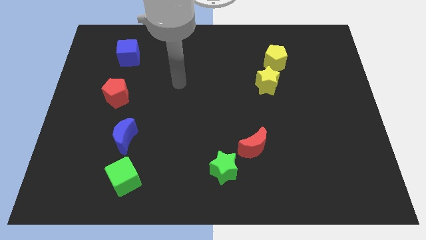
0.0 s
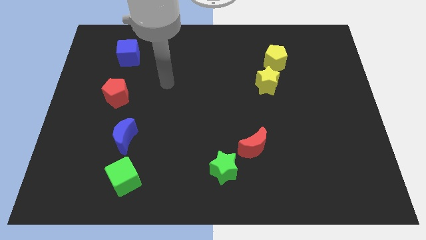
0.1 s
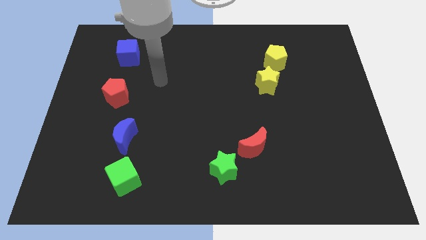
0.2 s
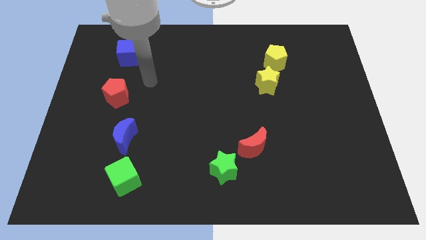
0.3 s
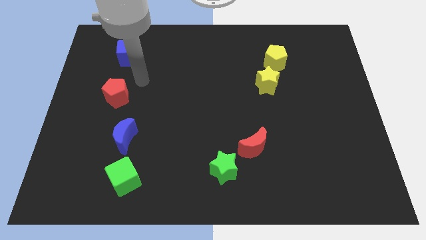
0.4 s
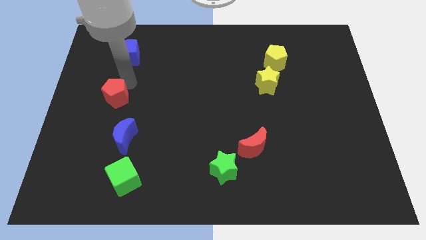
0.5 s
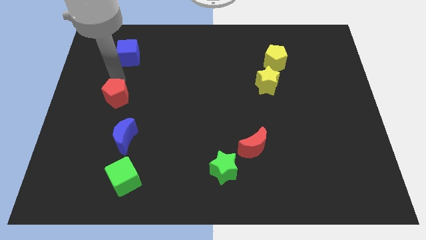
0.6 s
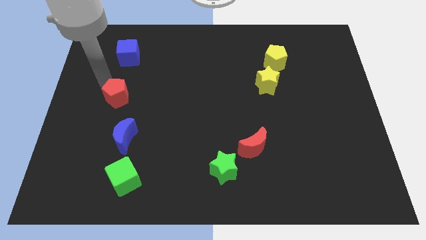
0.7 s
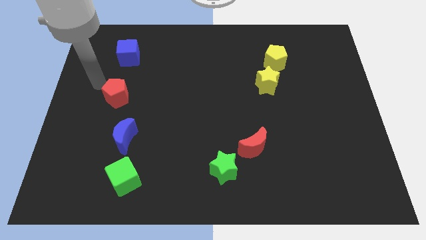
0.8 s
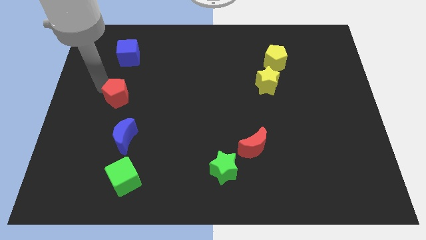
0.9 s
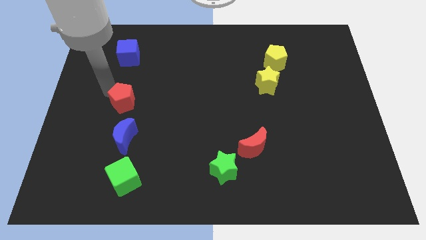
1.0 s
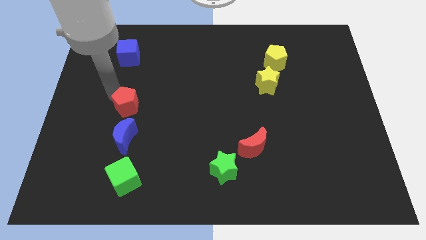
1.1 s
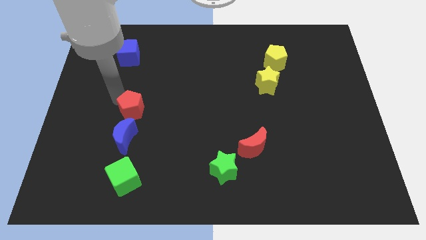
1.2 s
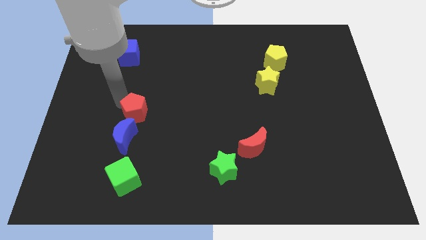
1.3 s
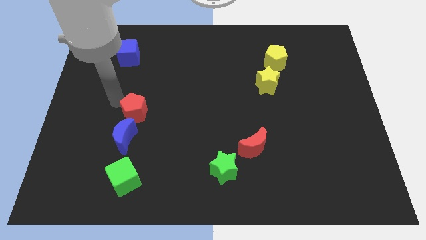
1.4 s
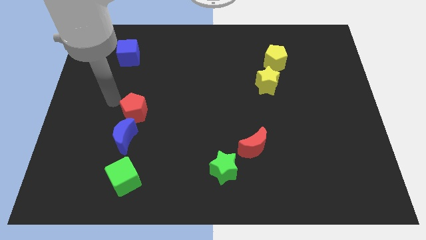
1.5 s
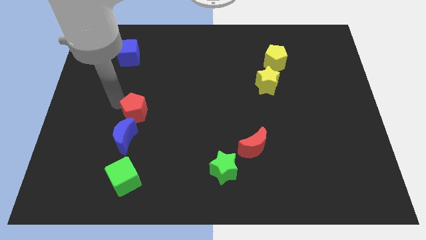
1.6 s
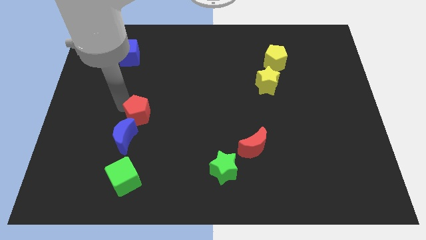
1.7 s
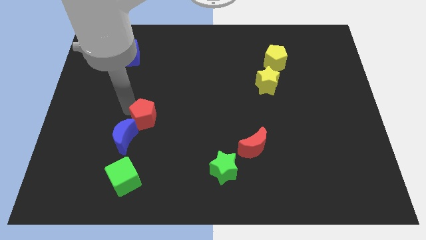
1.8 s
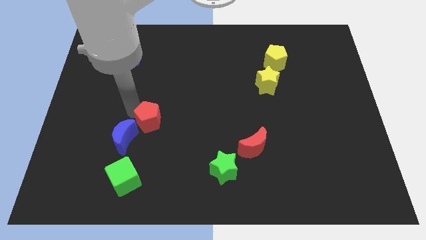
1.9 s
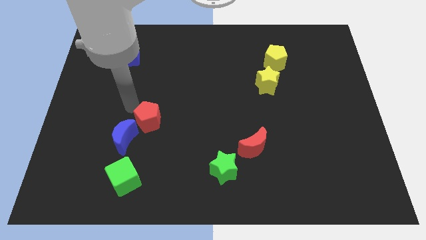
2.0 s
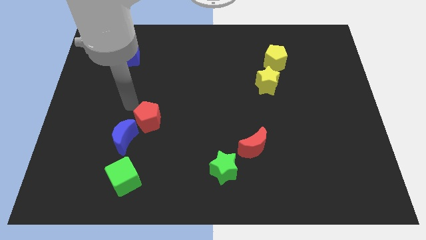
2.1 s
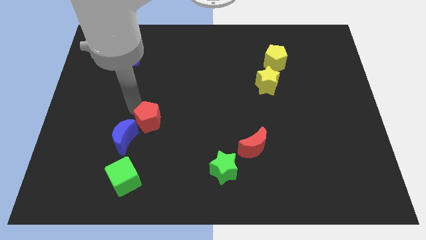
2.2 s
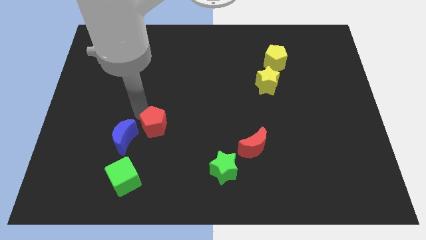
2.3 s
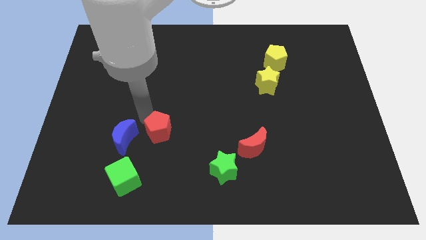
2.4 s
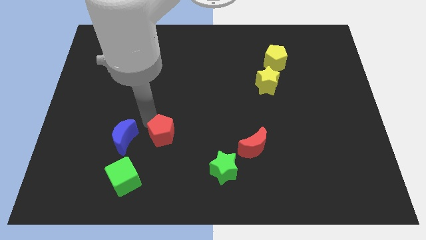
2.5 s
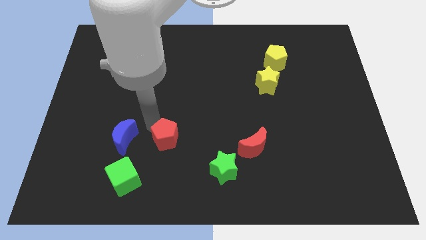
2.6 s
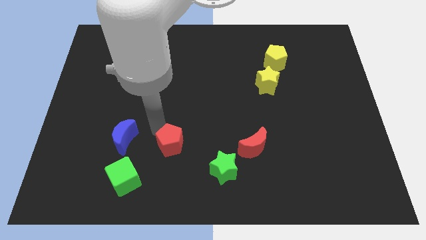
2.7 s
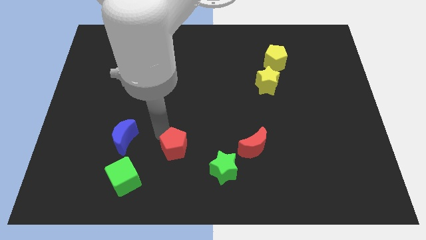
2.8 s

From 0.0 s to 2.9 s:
move the red pentagon diagonally downwards and right

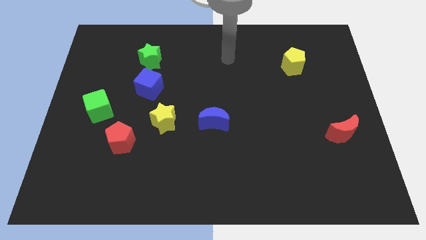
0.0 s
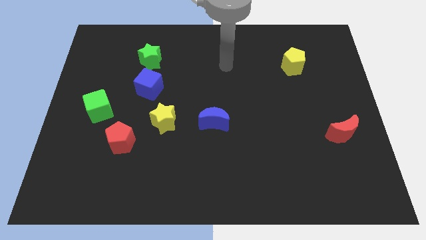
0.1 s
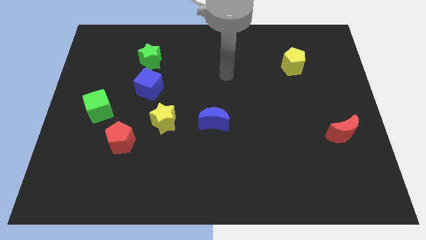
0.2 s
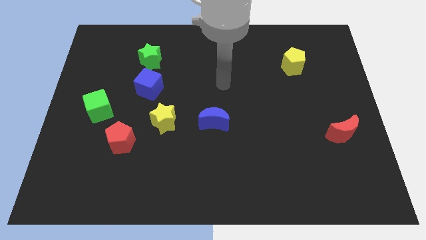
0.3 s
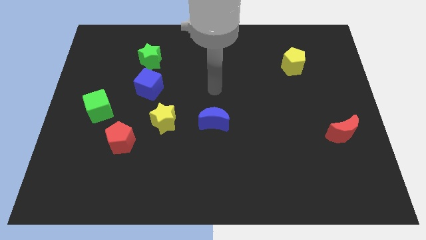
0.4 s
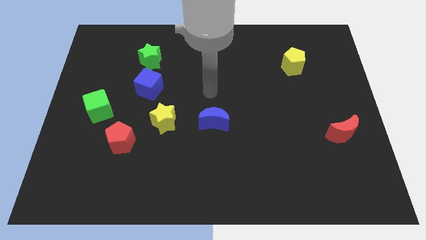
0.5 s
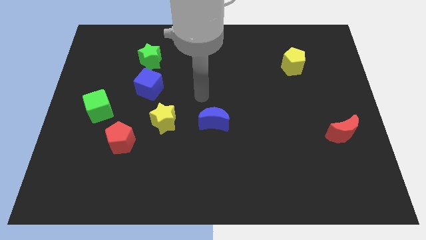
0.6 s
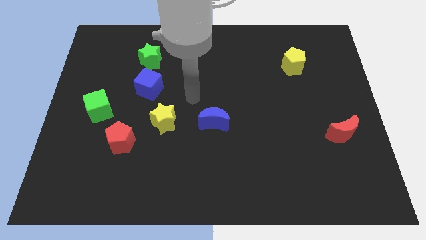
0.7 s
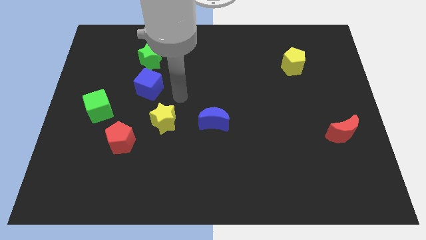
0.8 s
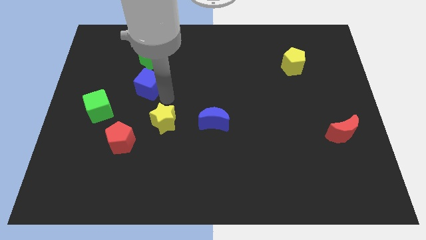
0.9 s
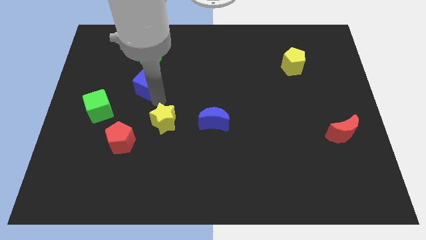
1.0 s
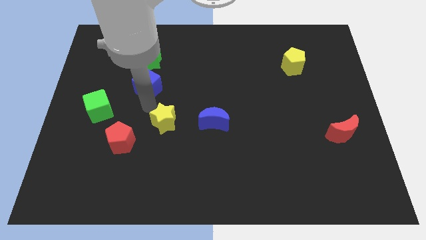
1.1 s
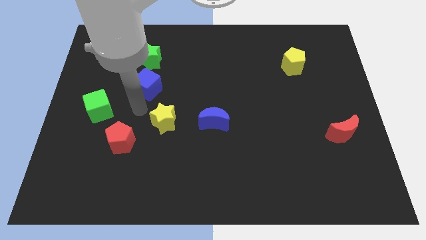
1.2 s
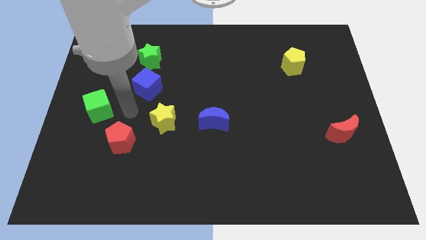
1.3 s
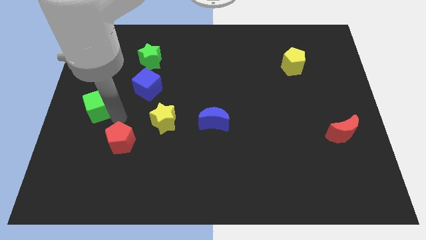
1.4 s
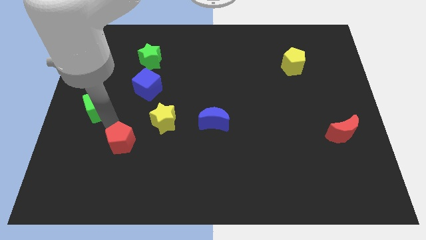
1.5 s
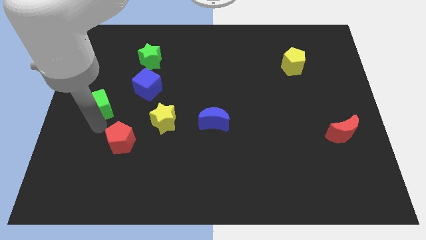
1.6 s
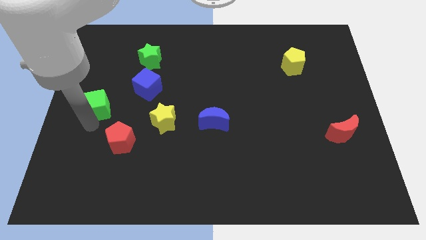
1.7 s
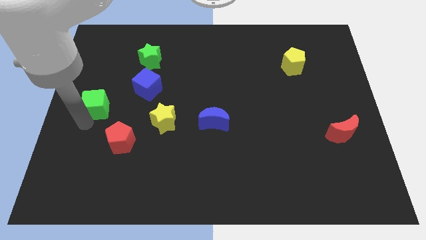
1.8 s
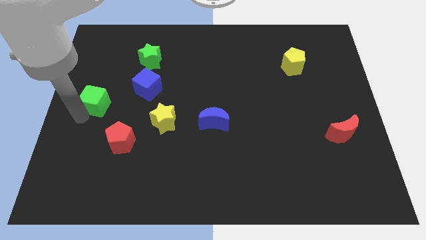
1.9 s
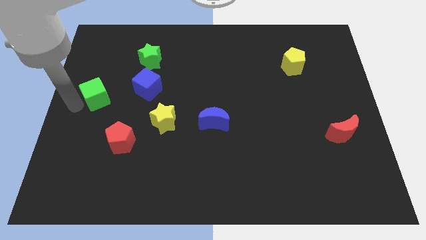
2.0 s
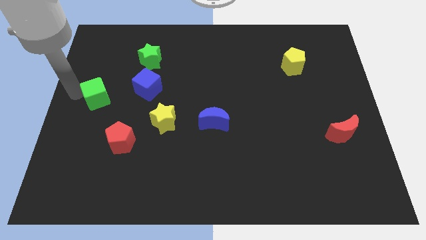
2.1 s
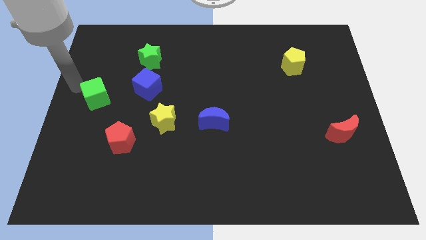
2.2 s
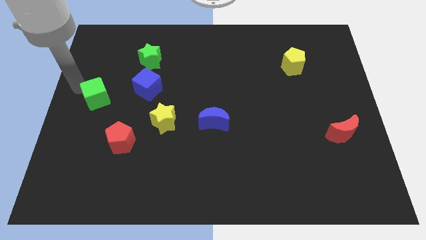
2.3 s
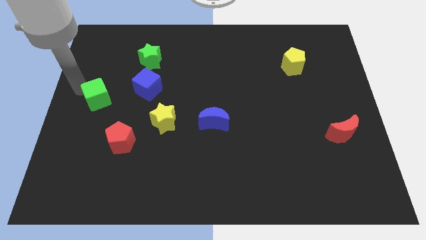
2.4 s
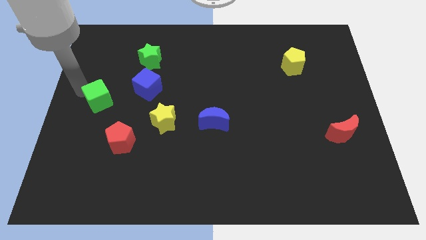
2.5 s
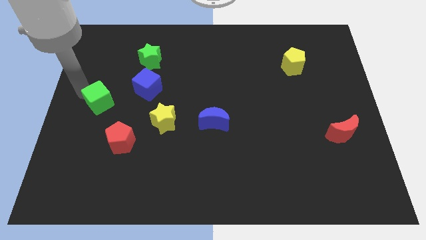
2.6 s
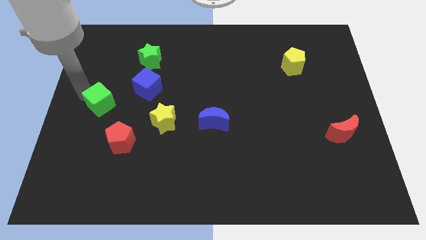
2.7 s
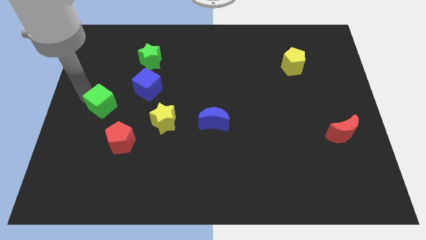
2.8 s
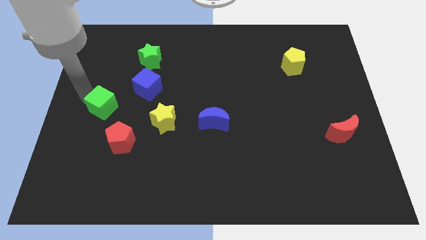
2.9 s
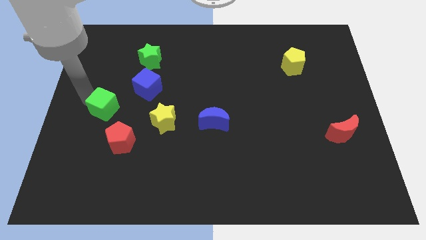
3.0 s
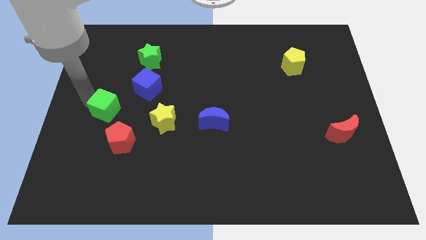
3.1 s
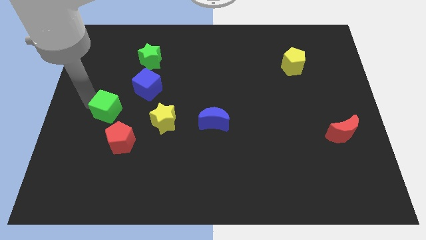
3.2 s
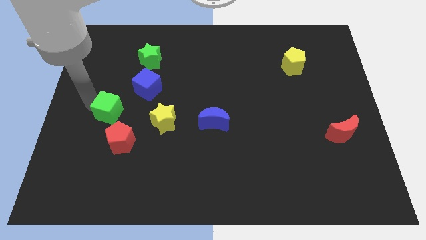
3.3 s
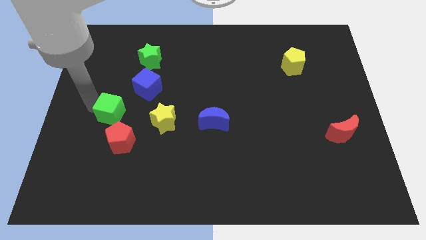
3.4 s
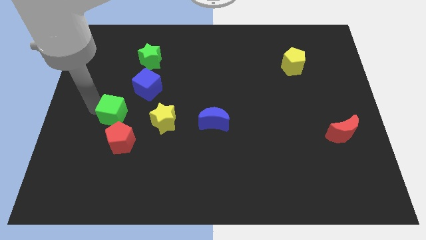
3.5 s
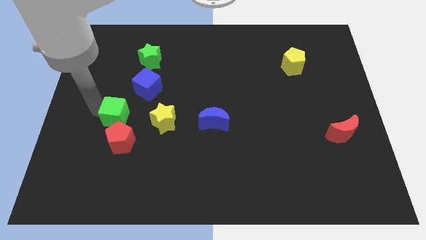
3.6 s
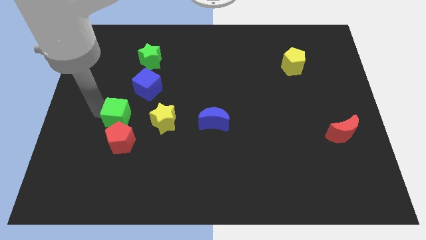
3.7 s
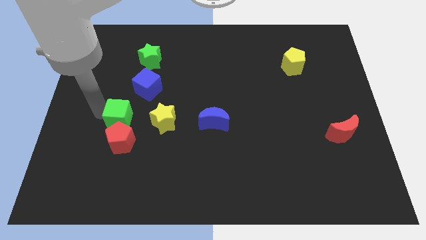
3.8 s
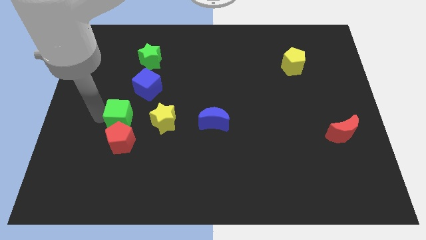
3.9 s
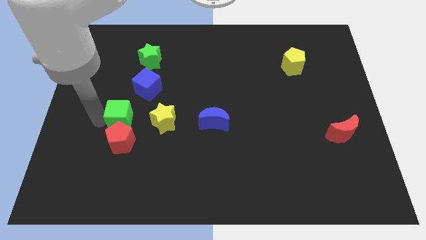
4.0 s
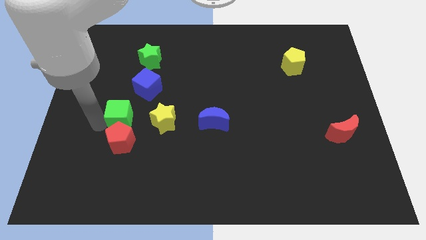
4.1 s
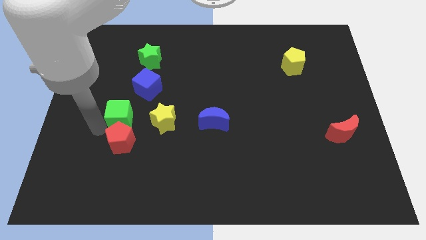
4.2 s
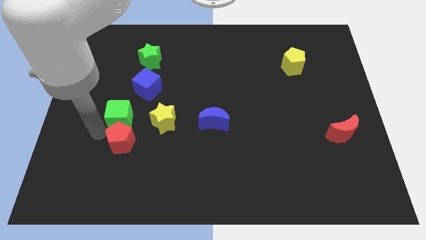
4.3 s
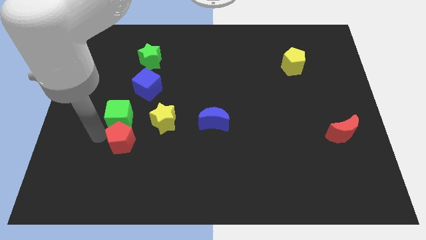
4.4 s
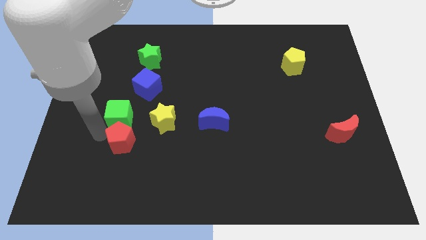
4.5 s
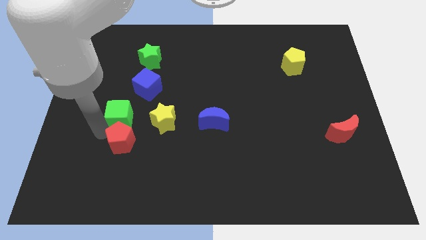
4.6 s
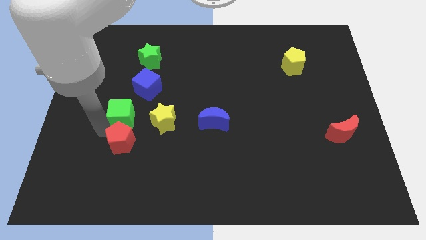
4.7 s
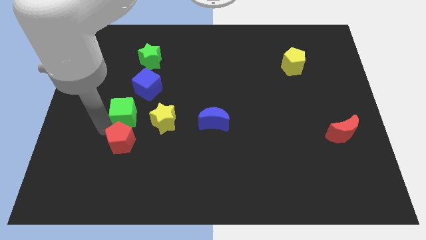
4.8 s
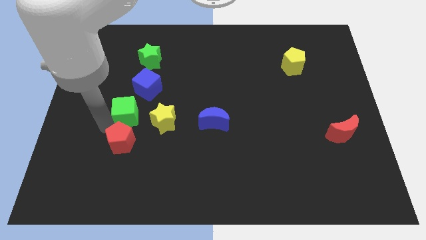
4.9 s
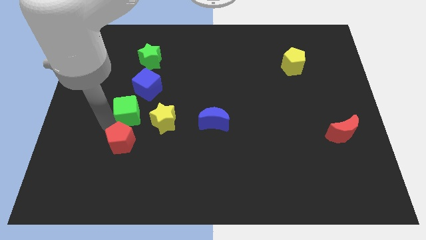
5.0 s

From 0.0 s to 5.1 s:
slightly move the green cube to the right

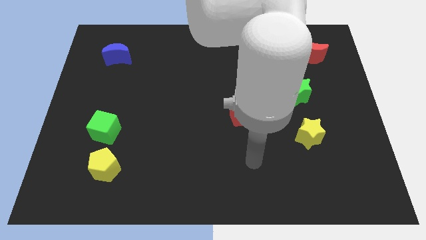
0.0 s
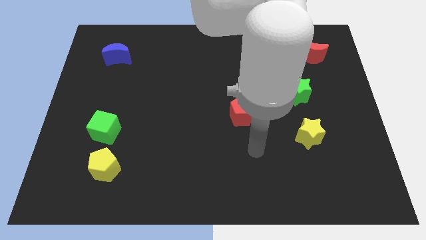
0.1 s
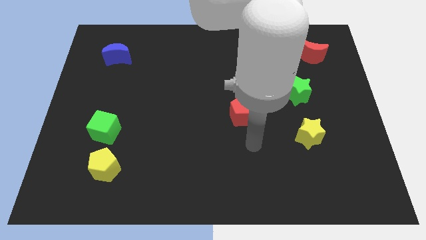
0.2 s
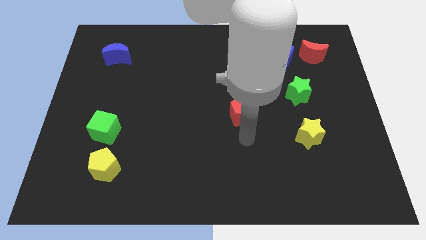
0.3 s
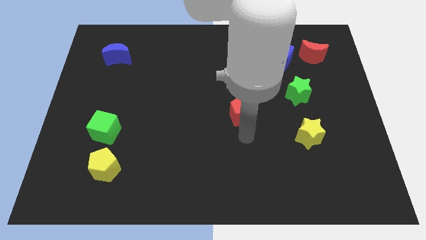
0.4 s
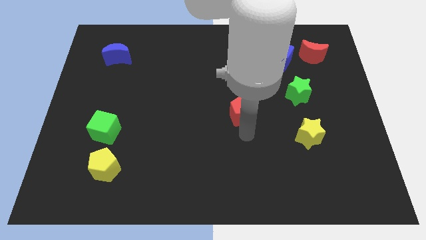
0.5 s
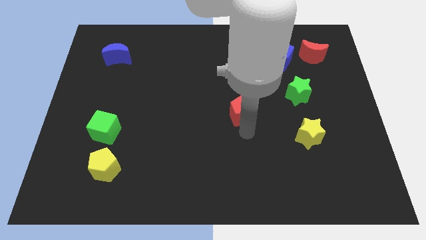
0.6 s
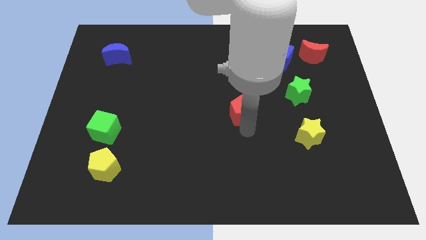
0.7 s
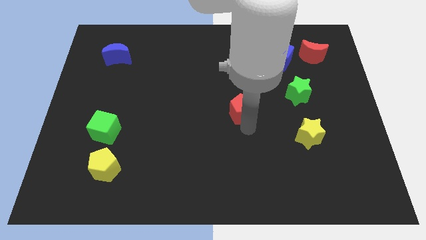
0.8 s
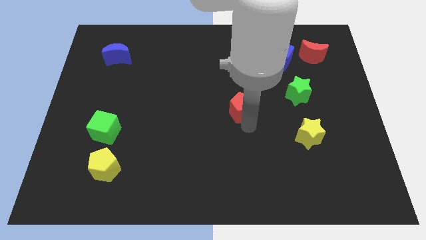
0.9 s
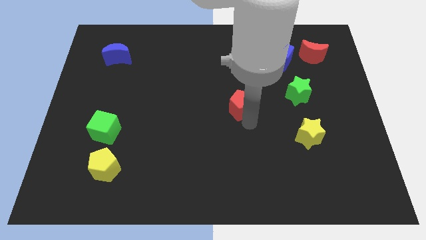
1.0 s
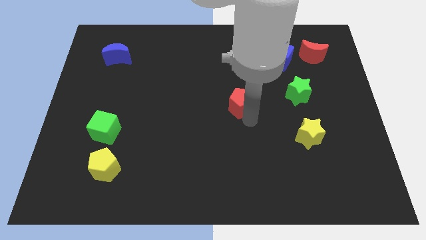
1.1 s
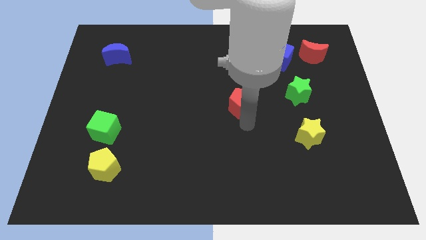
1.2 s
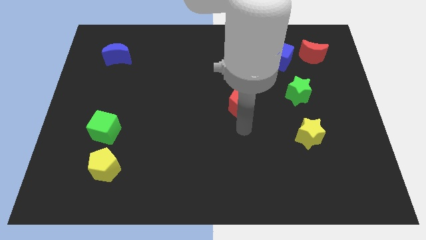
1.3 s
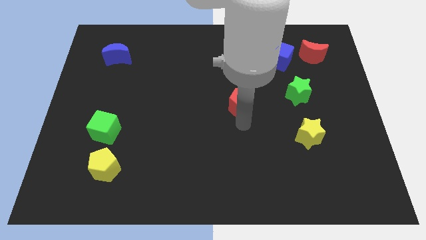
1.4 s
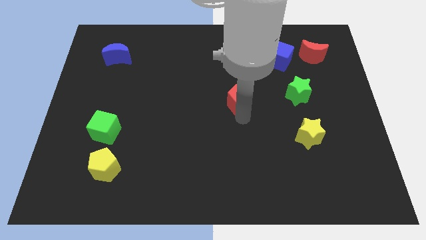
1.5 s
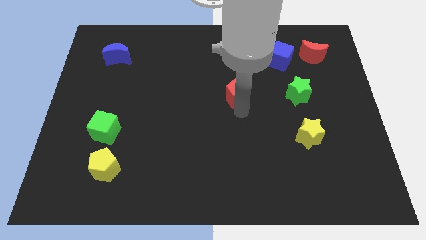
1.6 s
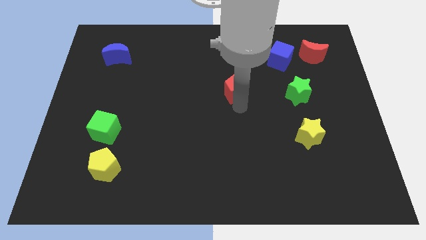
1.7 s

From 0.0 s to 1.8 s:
slide the red pentagon a bit up
